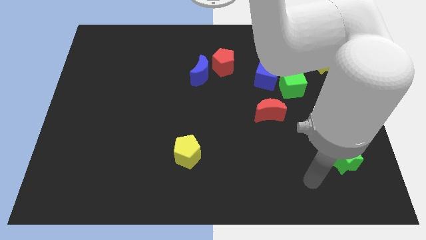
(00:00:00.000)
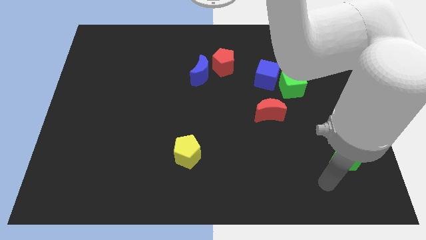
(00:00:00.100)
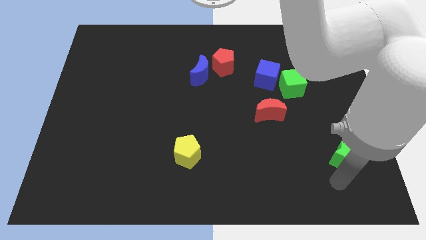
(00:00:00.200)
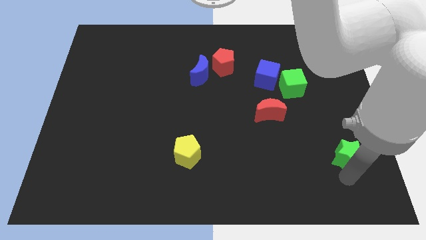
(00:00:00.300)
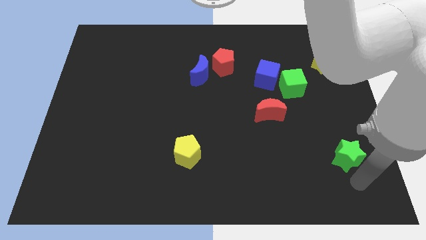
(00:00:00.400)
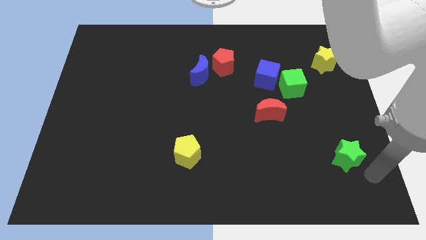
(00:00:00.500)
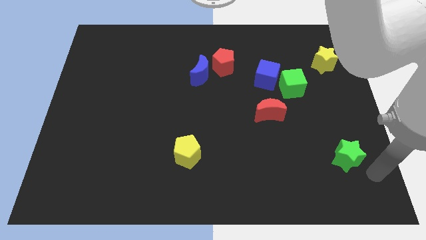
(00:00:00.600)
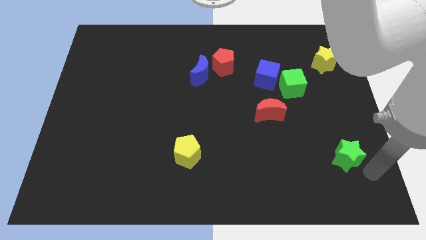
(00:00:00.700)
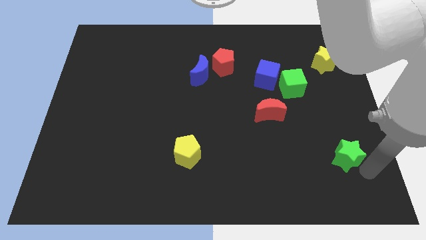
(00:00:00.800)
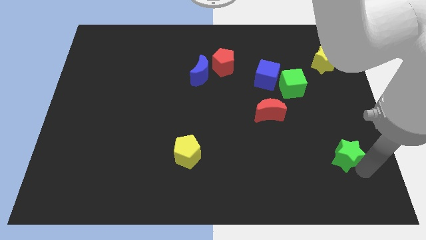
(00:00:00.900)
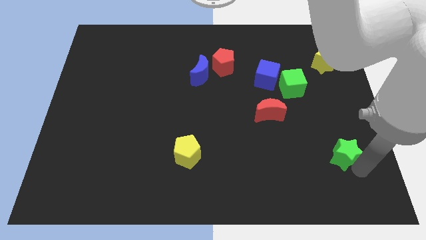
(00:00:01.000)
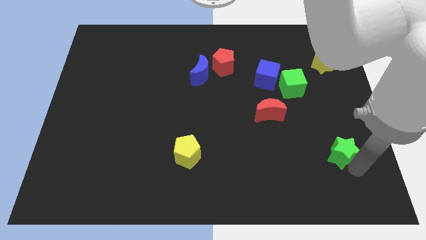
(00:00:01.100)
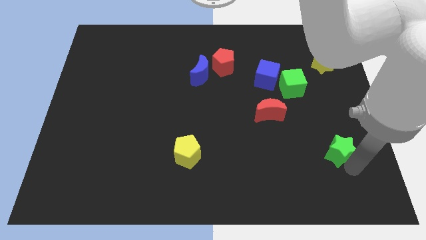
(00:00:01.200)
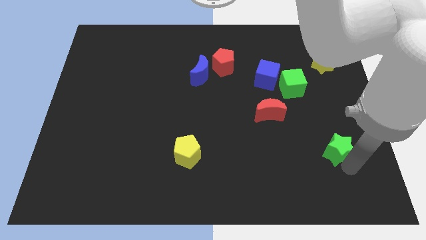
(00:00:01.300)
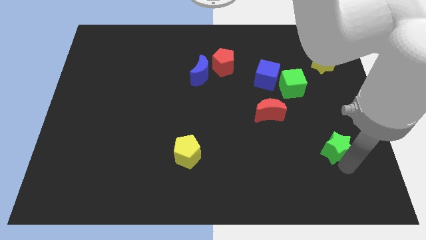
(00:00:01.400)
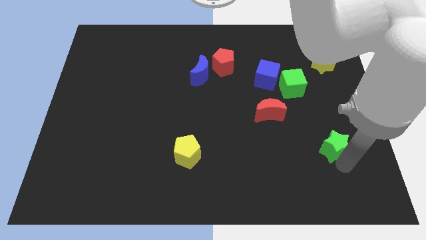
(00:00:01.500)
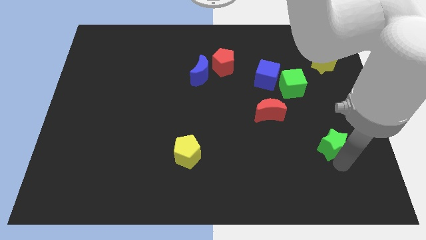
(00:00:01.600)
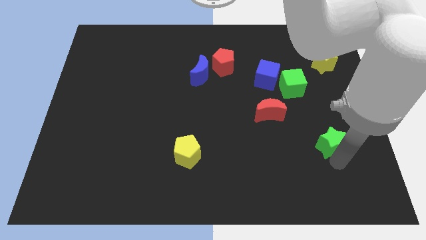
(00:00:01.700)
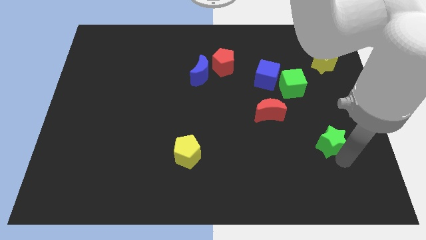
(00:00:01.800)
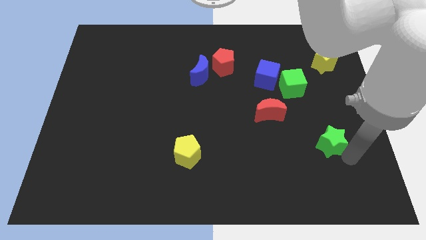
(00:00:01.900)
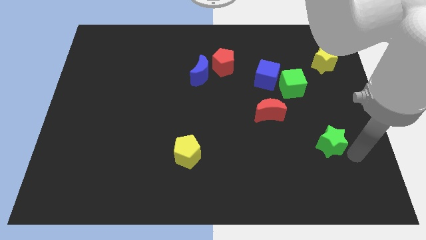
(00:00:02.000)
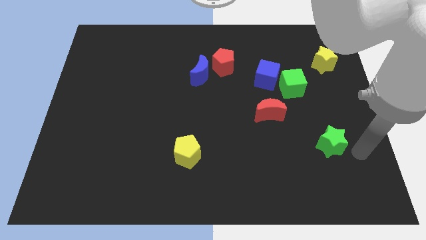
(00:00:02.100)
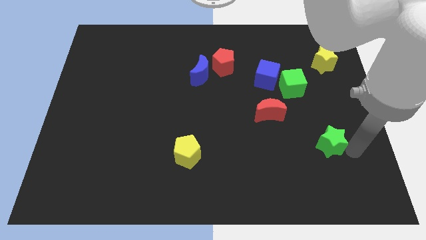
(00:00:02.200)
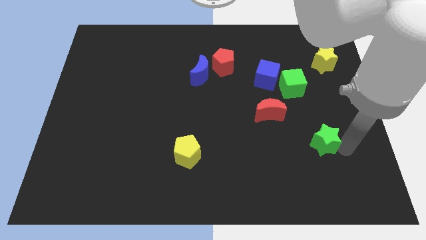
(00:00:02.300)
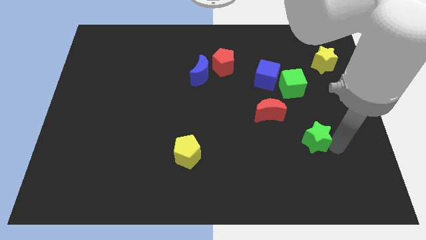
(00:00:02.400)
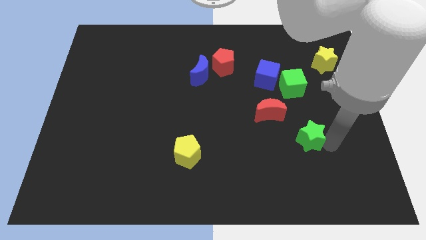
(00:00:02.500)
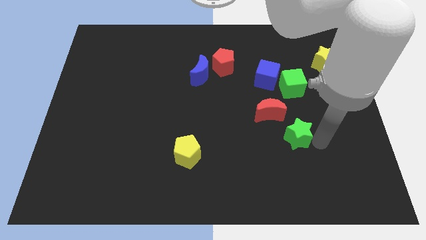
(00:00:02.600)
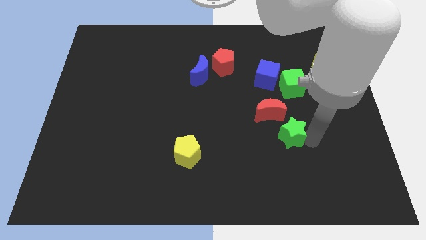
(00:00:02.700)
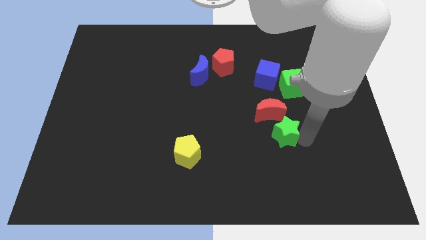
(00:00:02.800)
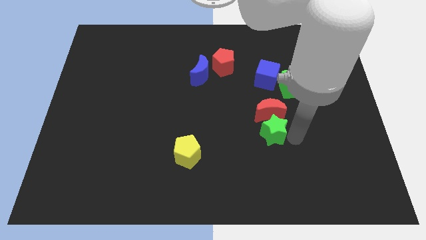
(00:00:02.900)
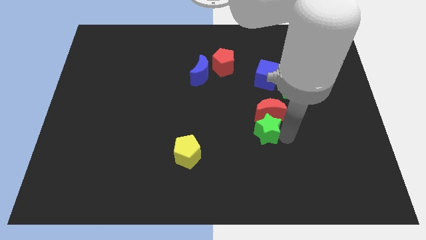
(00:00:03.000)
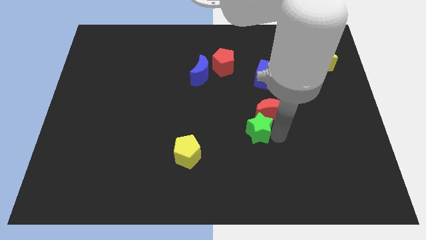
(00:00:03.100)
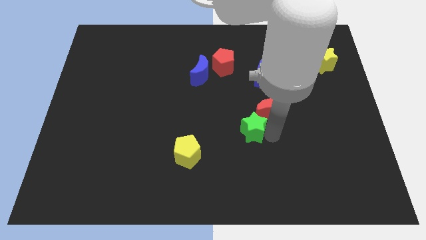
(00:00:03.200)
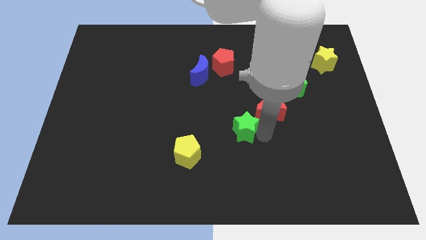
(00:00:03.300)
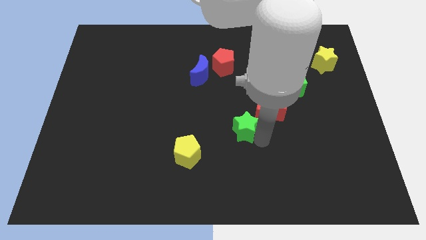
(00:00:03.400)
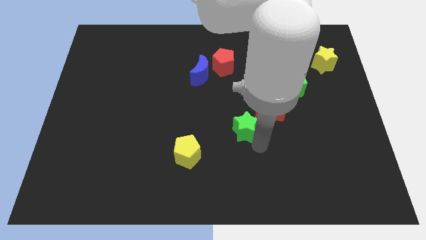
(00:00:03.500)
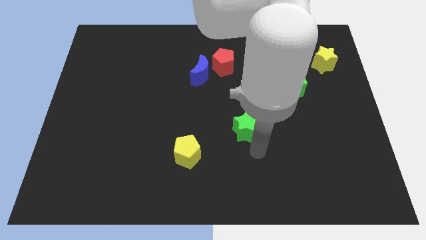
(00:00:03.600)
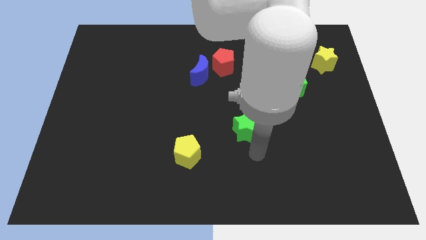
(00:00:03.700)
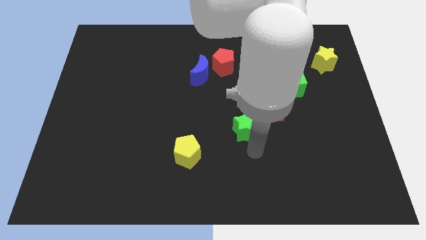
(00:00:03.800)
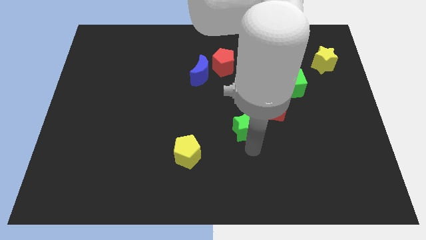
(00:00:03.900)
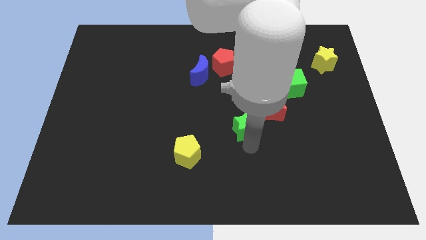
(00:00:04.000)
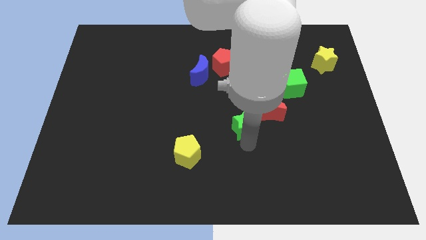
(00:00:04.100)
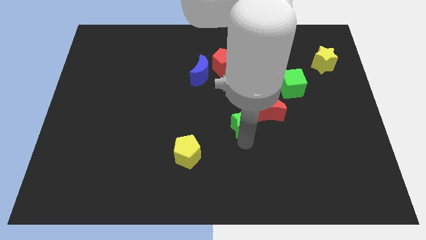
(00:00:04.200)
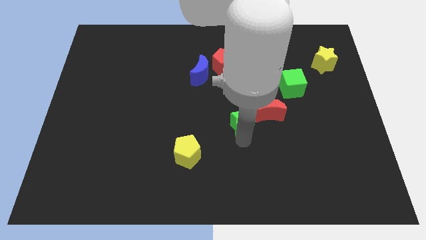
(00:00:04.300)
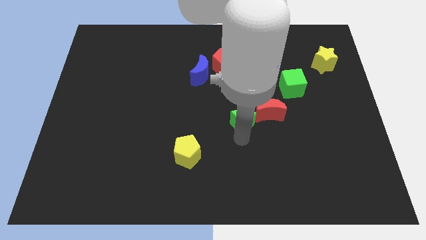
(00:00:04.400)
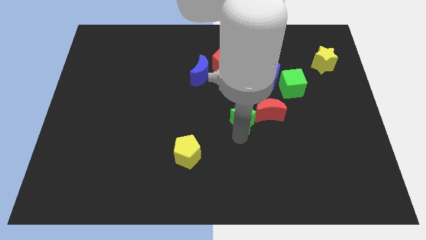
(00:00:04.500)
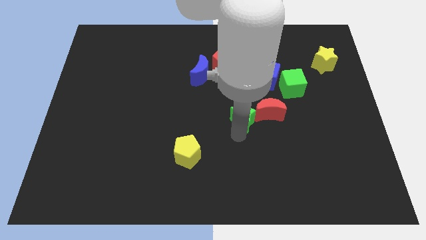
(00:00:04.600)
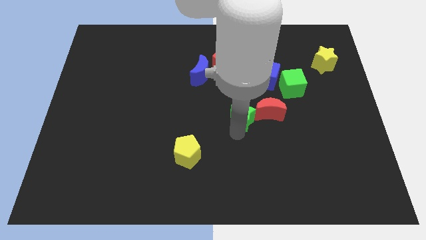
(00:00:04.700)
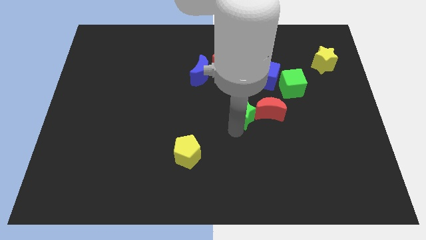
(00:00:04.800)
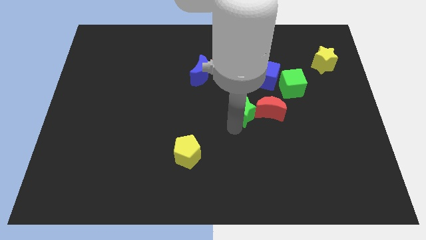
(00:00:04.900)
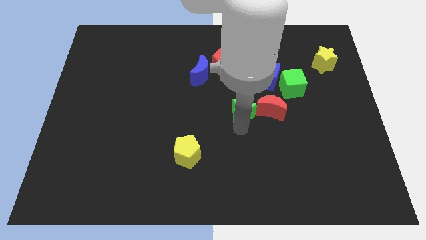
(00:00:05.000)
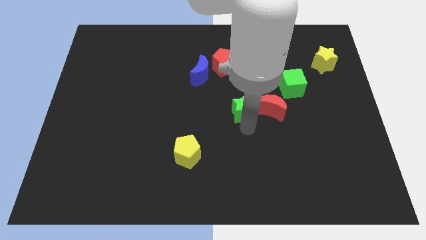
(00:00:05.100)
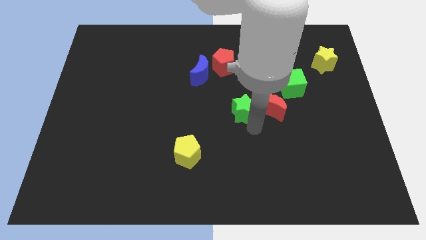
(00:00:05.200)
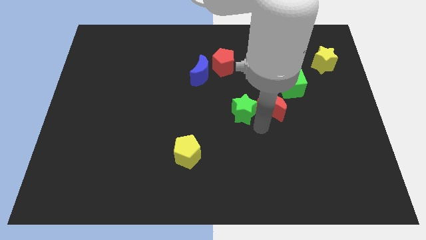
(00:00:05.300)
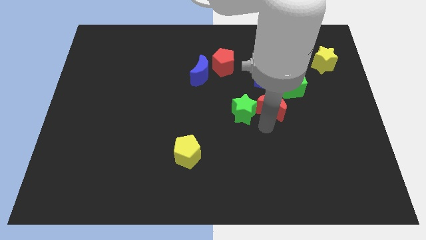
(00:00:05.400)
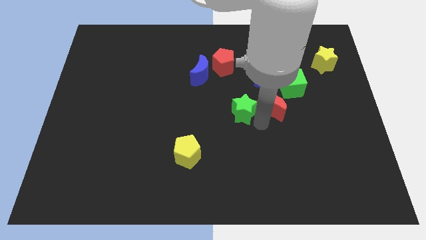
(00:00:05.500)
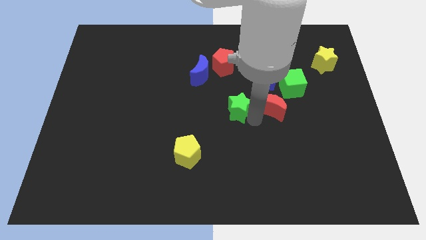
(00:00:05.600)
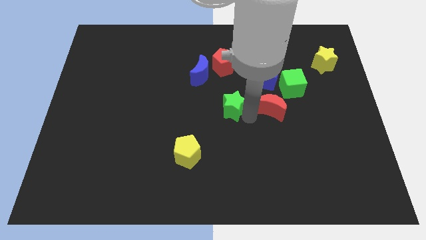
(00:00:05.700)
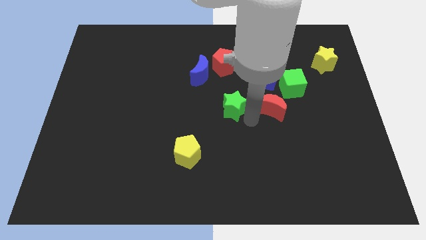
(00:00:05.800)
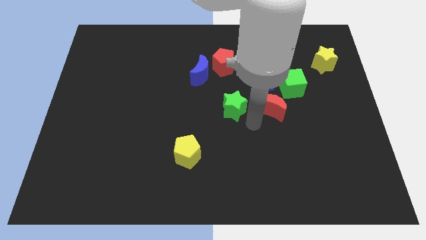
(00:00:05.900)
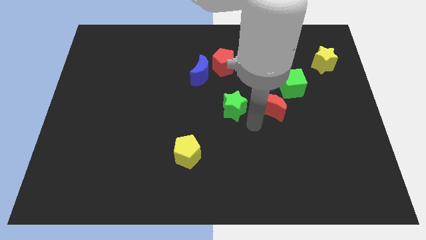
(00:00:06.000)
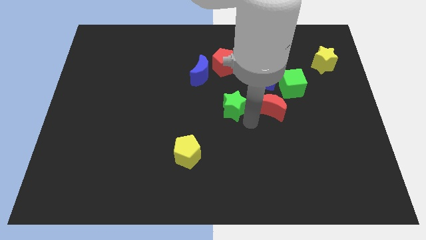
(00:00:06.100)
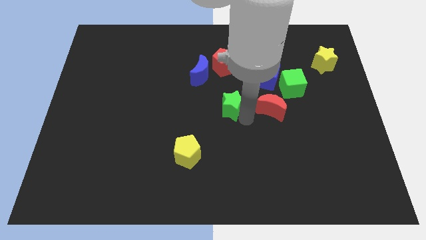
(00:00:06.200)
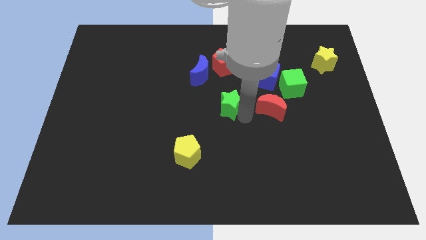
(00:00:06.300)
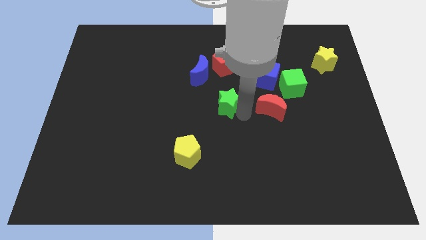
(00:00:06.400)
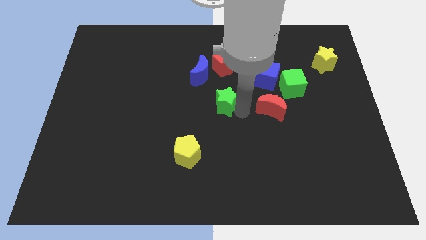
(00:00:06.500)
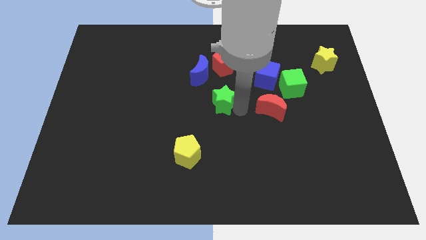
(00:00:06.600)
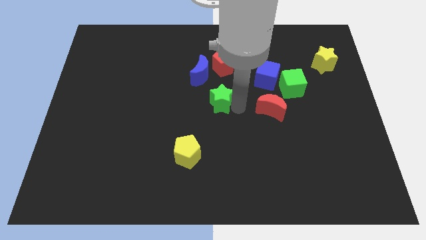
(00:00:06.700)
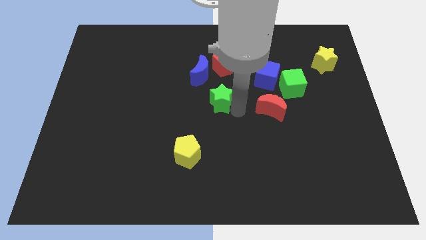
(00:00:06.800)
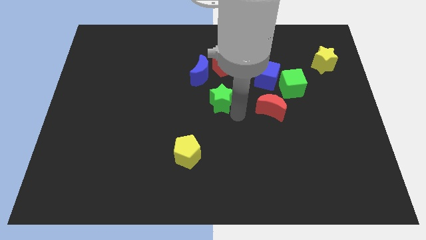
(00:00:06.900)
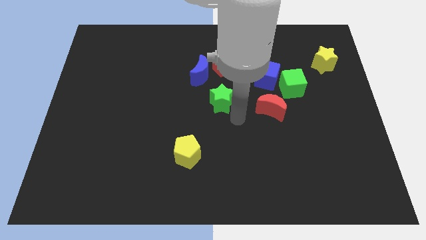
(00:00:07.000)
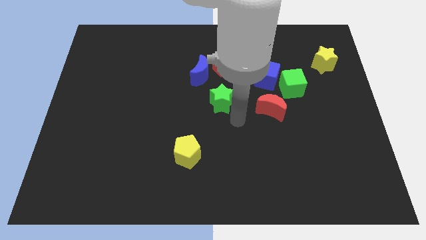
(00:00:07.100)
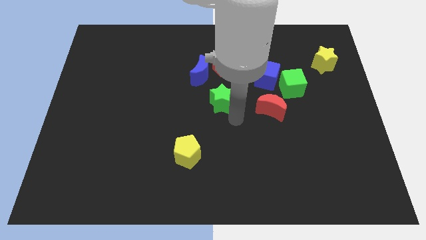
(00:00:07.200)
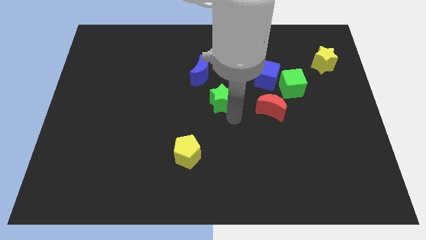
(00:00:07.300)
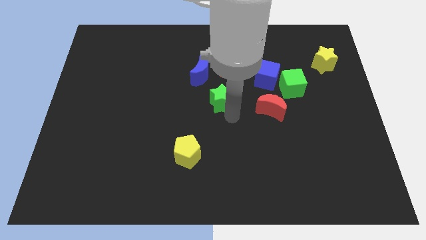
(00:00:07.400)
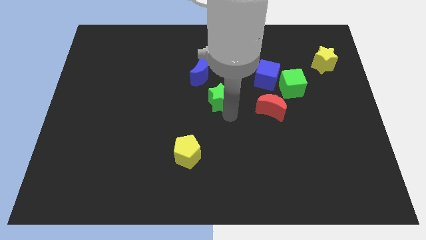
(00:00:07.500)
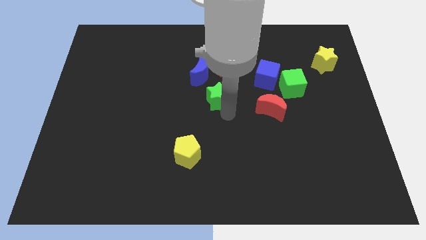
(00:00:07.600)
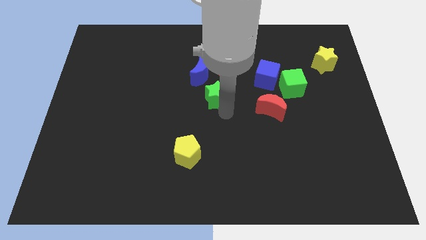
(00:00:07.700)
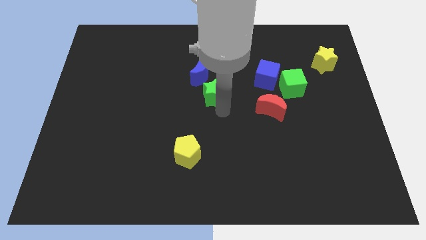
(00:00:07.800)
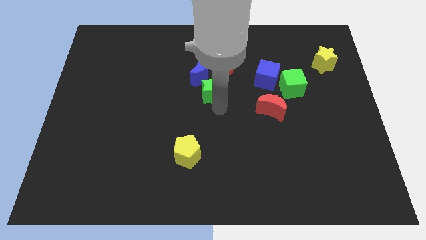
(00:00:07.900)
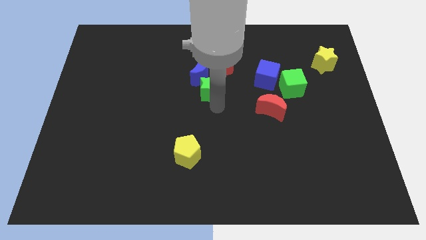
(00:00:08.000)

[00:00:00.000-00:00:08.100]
move the green star next to the blue moon
